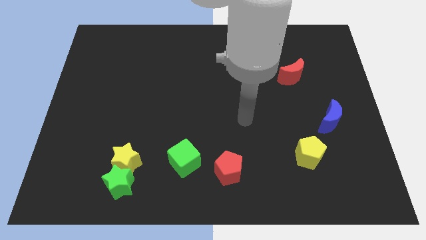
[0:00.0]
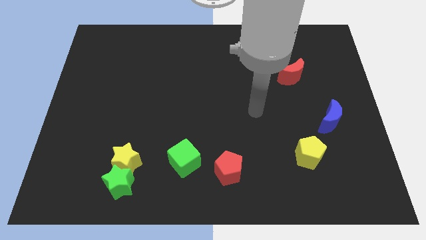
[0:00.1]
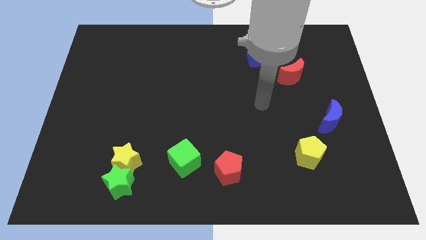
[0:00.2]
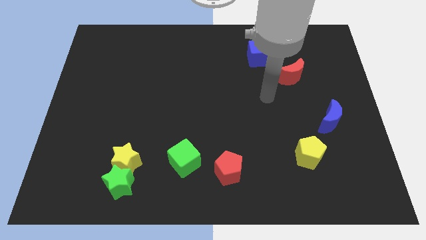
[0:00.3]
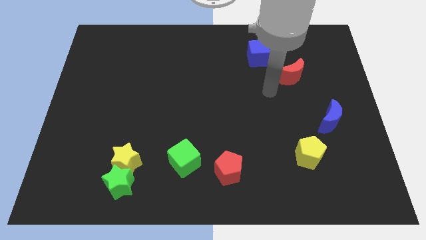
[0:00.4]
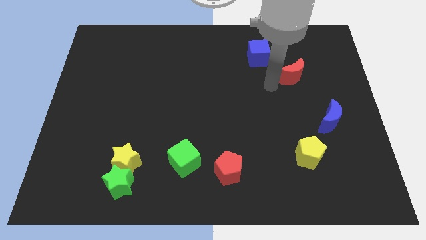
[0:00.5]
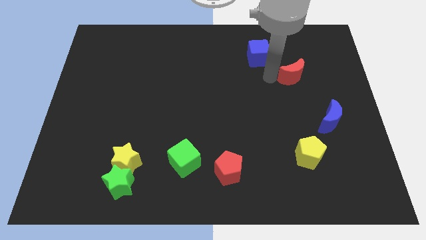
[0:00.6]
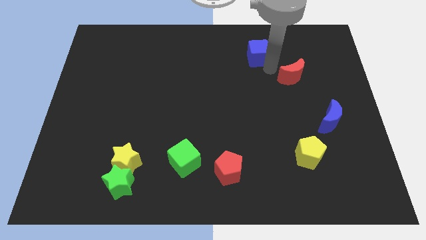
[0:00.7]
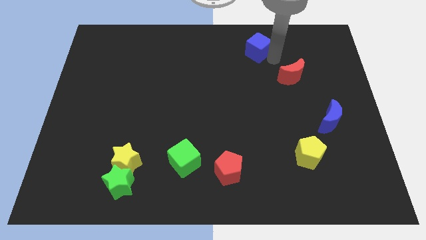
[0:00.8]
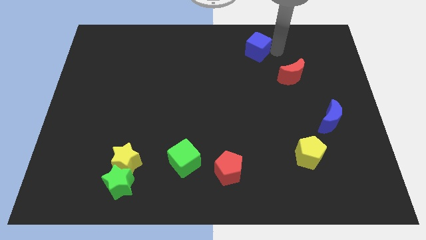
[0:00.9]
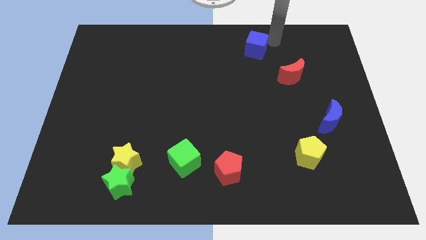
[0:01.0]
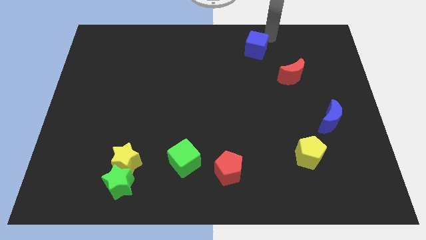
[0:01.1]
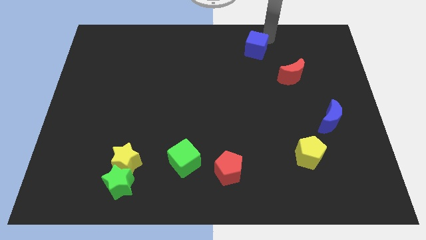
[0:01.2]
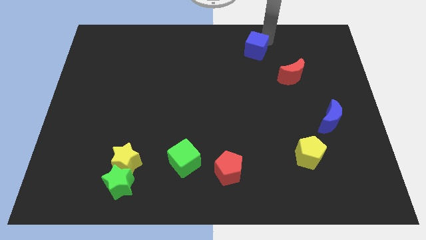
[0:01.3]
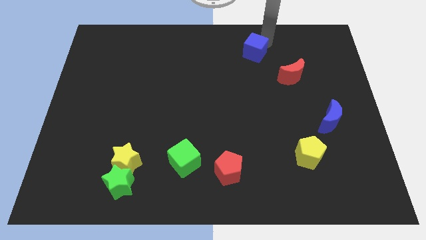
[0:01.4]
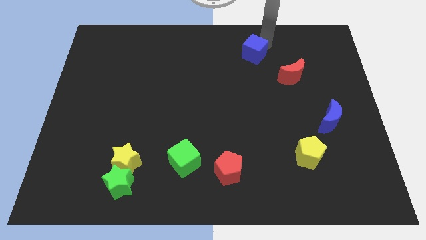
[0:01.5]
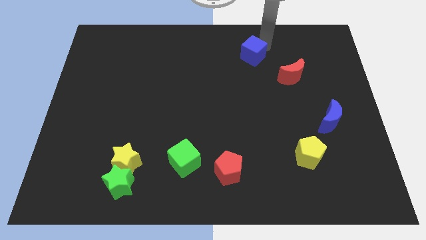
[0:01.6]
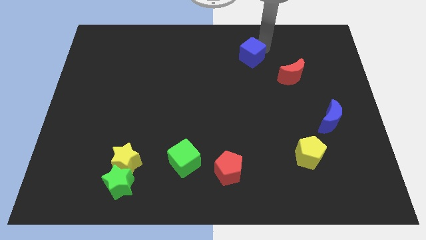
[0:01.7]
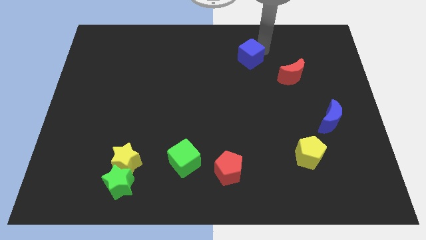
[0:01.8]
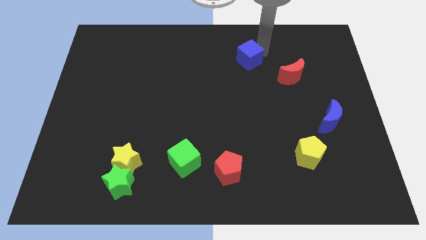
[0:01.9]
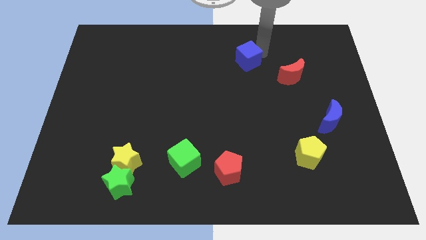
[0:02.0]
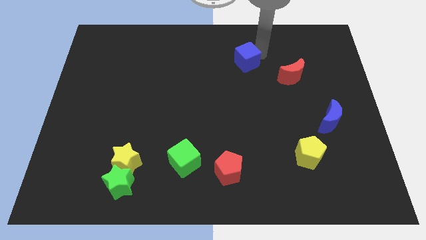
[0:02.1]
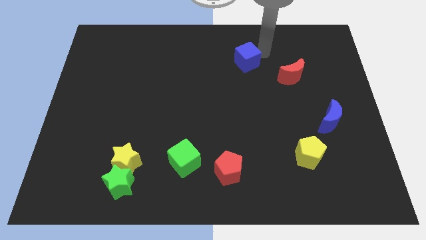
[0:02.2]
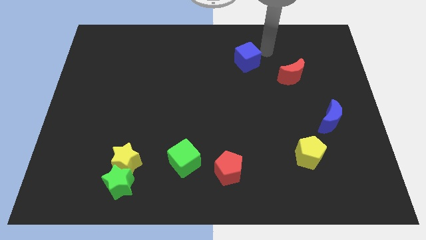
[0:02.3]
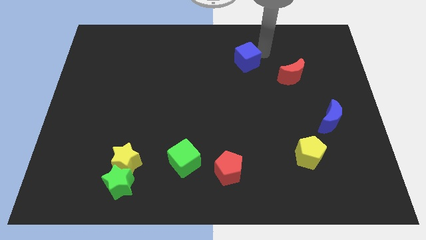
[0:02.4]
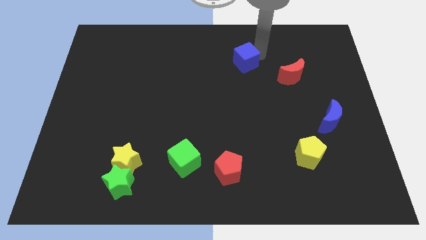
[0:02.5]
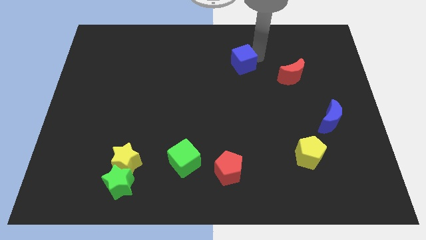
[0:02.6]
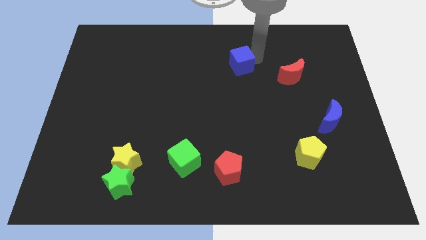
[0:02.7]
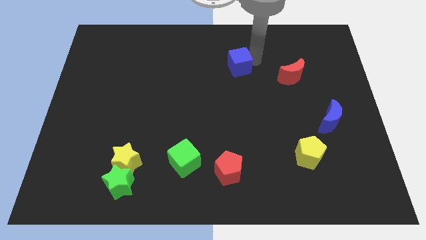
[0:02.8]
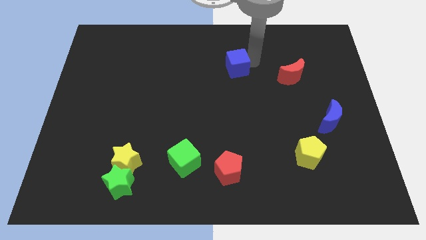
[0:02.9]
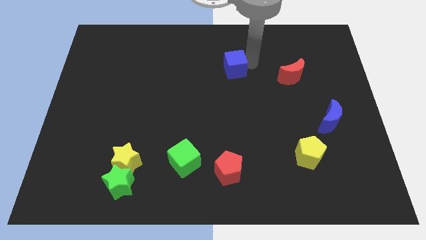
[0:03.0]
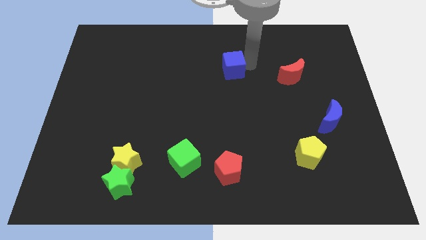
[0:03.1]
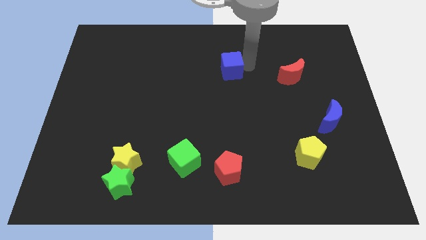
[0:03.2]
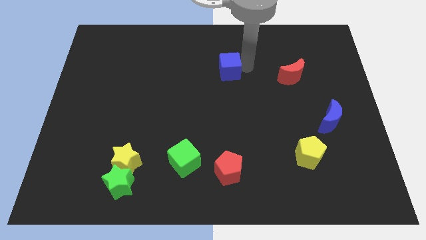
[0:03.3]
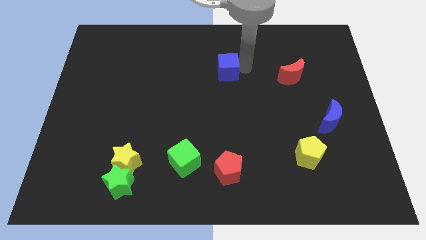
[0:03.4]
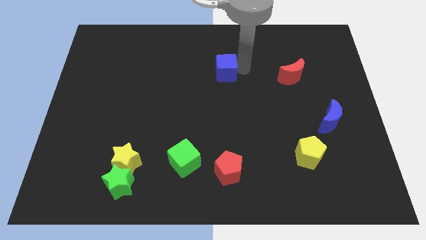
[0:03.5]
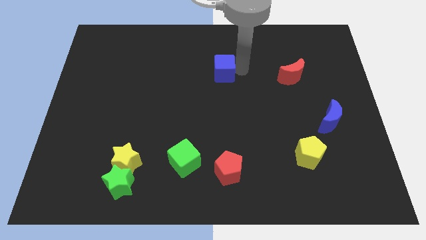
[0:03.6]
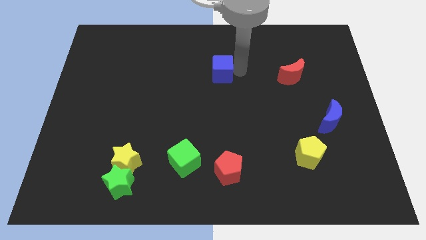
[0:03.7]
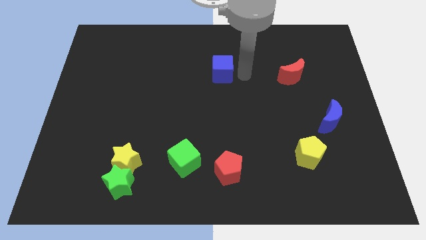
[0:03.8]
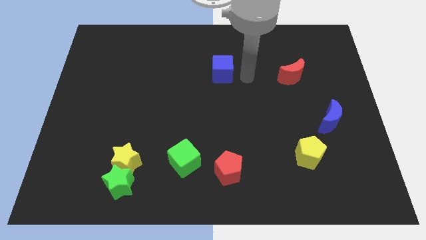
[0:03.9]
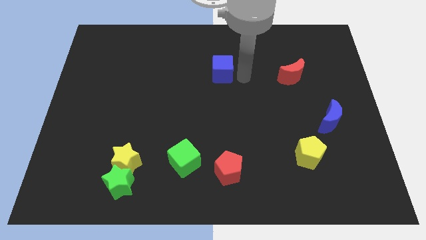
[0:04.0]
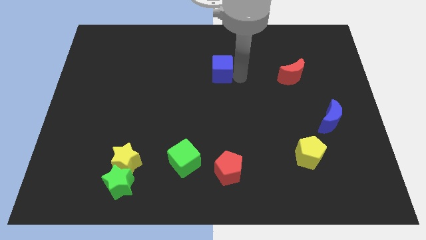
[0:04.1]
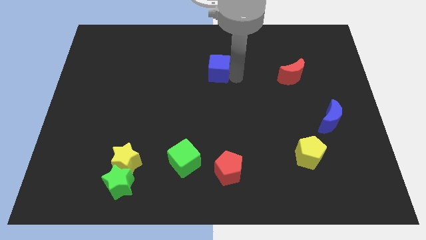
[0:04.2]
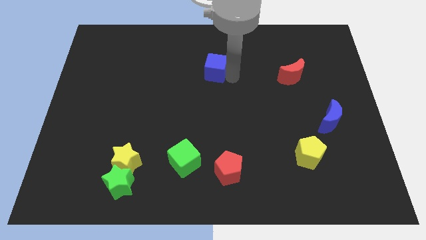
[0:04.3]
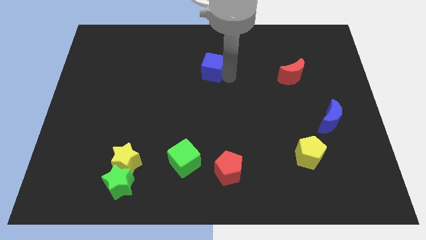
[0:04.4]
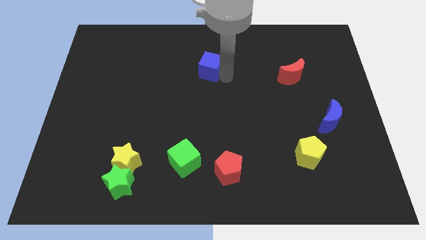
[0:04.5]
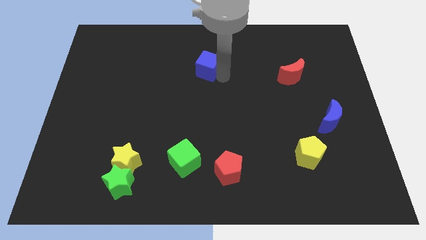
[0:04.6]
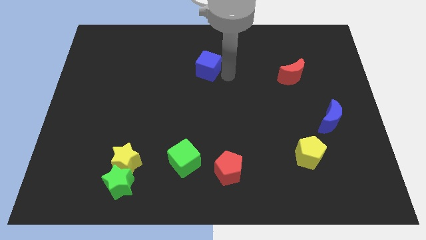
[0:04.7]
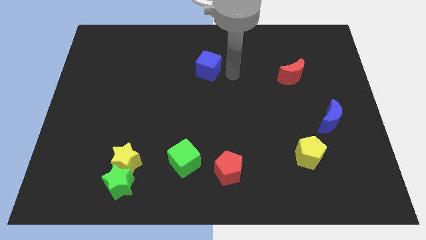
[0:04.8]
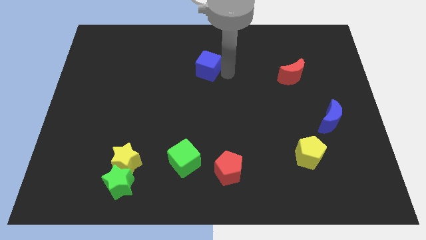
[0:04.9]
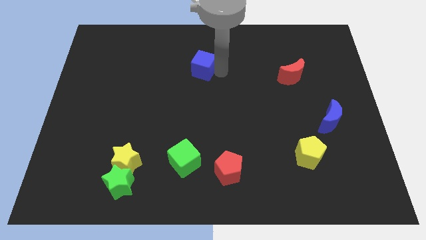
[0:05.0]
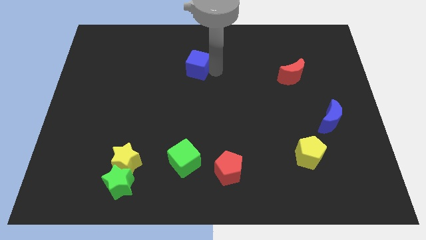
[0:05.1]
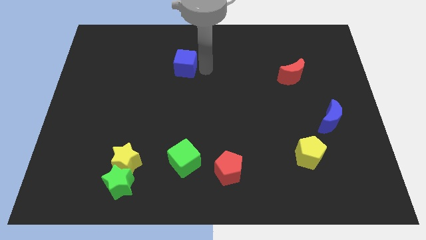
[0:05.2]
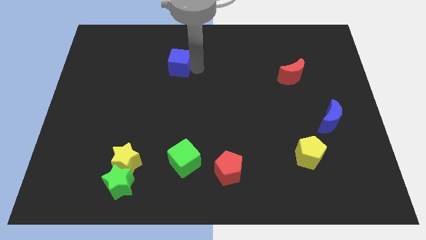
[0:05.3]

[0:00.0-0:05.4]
move the blue cube left

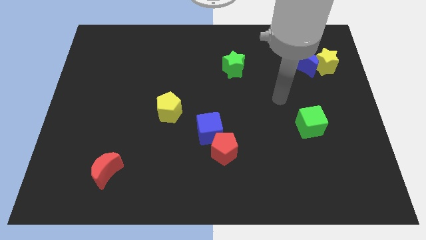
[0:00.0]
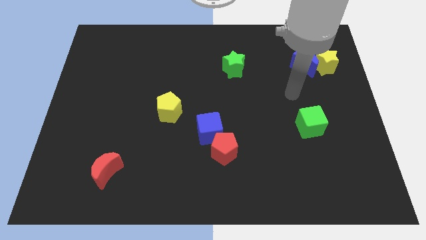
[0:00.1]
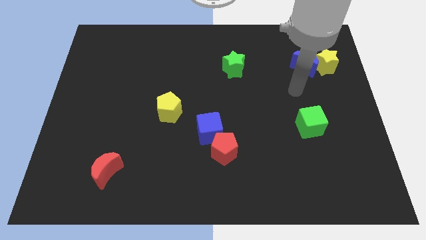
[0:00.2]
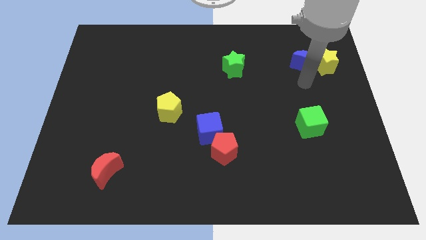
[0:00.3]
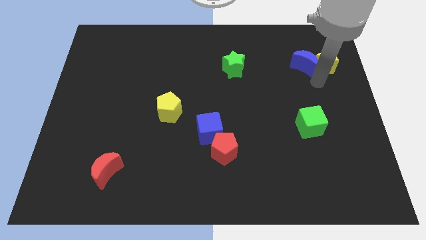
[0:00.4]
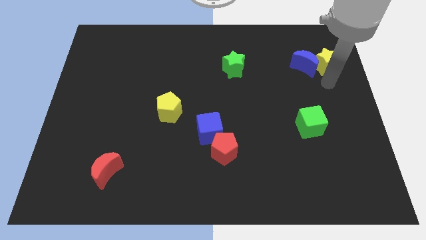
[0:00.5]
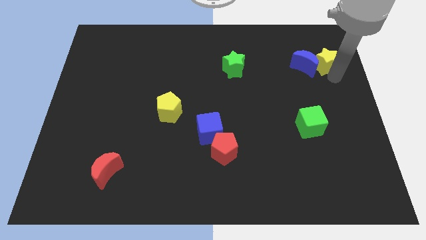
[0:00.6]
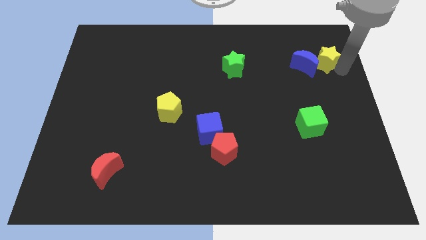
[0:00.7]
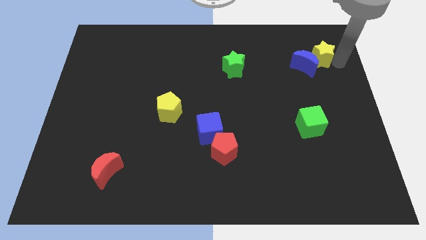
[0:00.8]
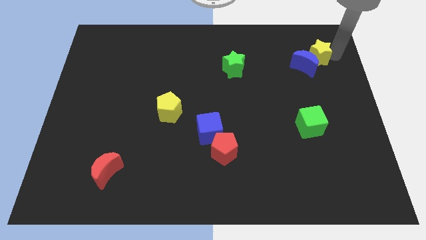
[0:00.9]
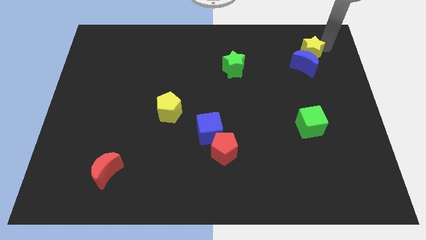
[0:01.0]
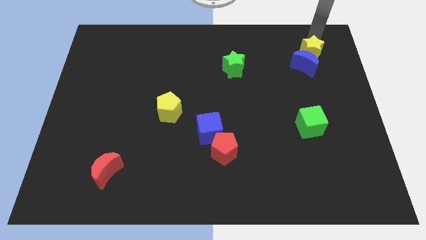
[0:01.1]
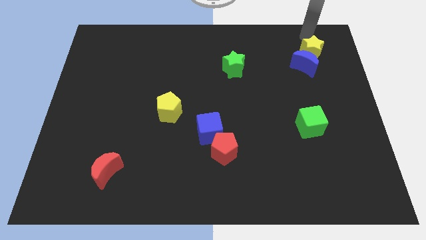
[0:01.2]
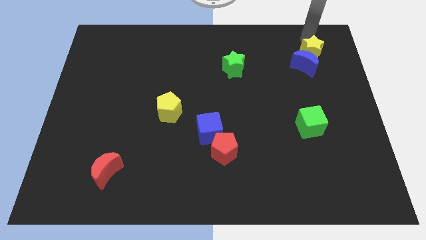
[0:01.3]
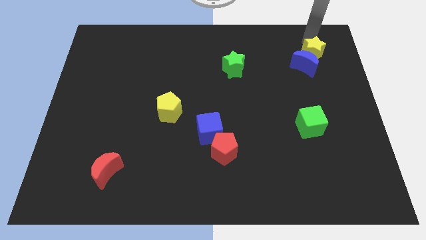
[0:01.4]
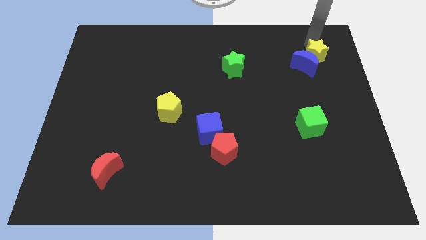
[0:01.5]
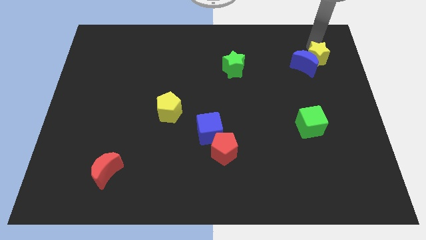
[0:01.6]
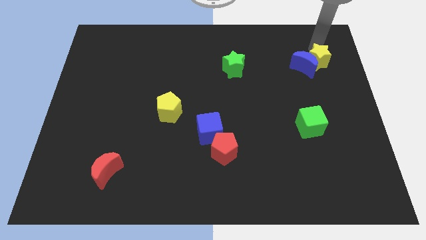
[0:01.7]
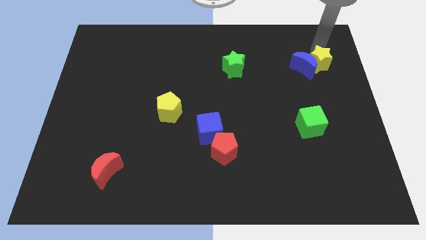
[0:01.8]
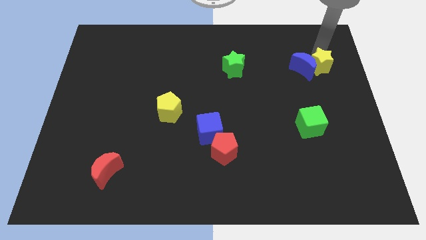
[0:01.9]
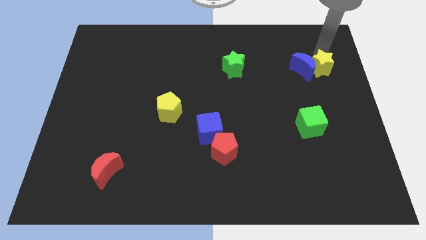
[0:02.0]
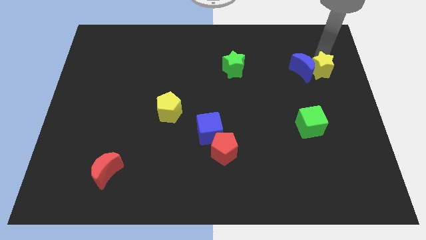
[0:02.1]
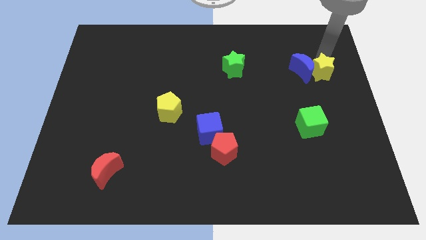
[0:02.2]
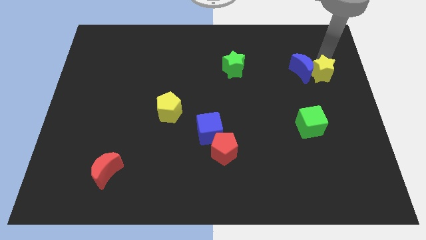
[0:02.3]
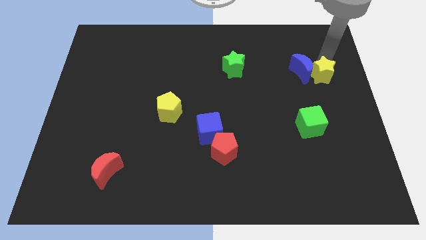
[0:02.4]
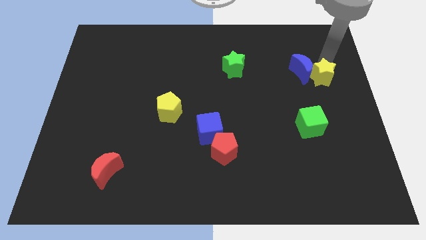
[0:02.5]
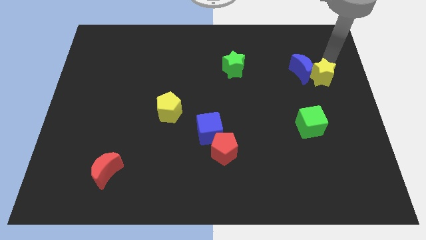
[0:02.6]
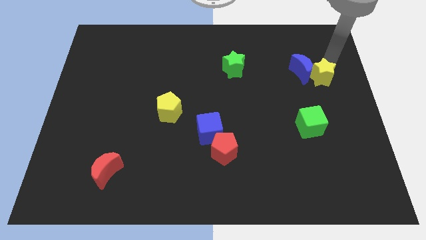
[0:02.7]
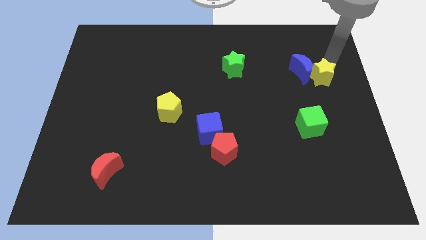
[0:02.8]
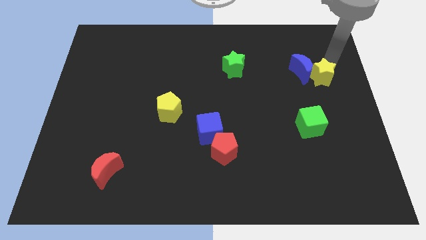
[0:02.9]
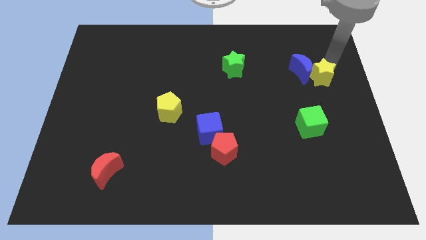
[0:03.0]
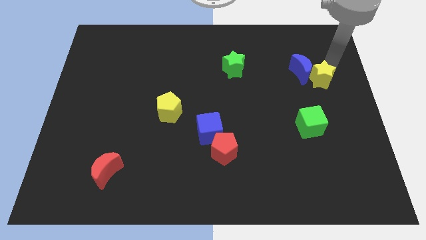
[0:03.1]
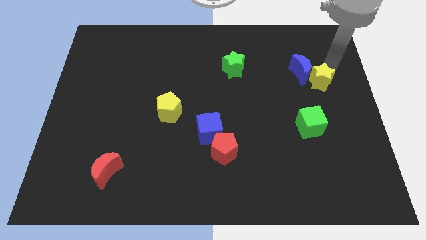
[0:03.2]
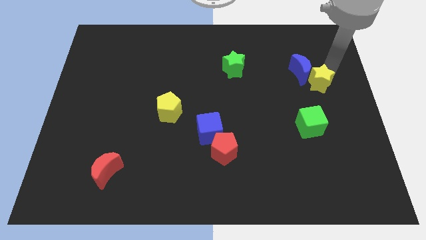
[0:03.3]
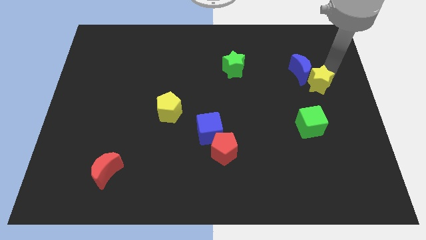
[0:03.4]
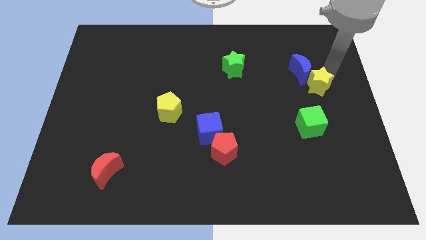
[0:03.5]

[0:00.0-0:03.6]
push the yellow star a bit diagonally downwards and to the left
